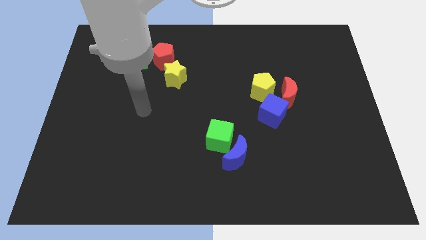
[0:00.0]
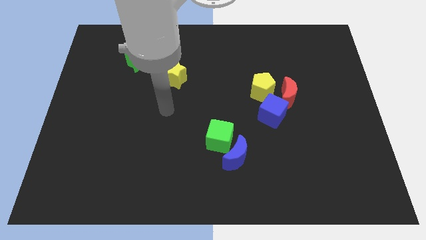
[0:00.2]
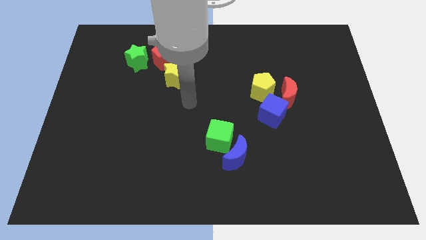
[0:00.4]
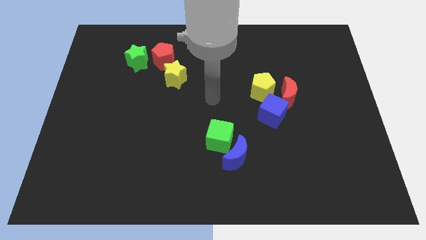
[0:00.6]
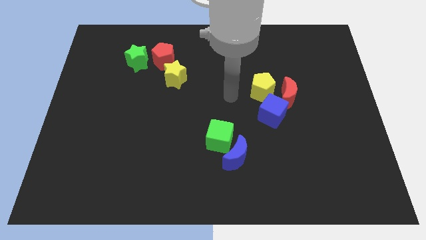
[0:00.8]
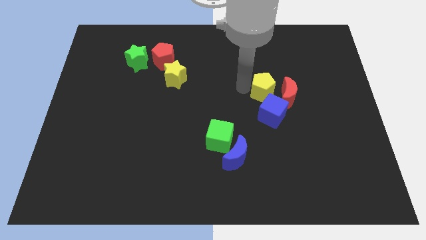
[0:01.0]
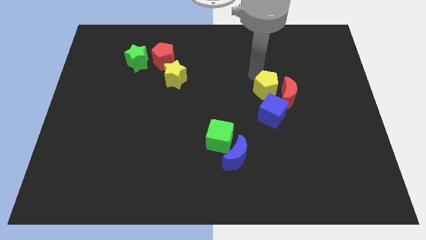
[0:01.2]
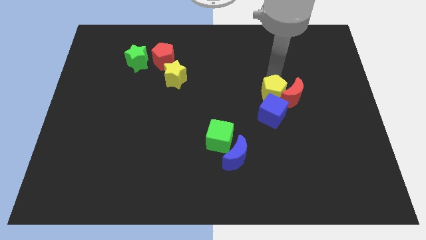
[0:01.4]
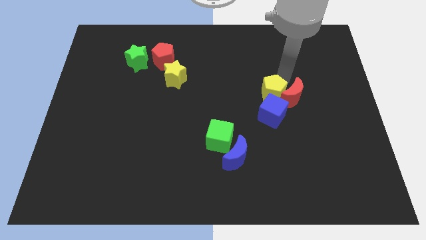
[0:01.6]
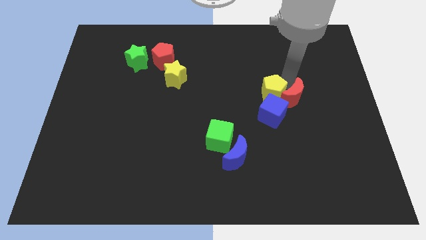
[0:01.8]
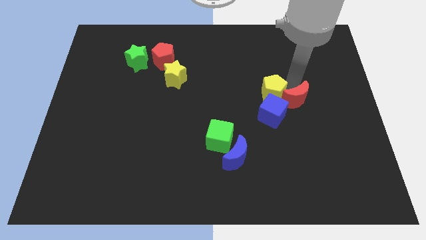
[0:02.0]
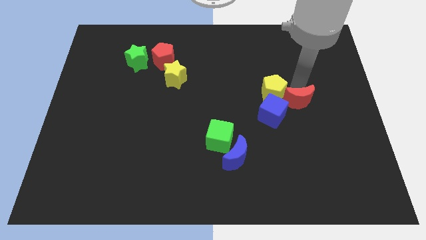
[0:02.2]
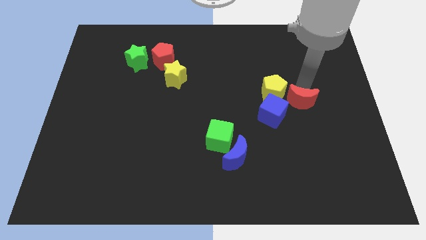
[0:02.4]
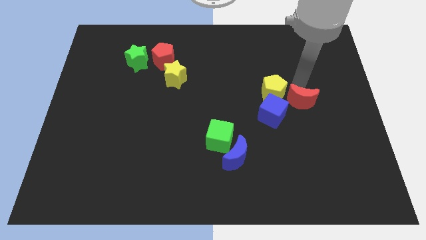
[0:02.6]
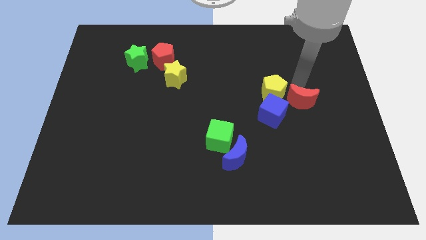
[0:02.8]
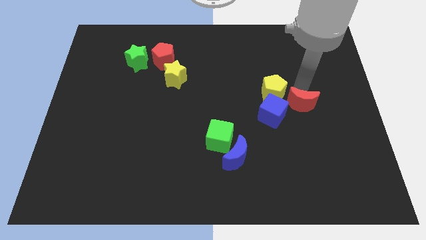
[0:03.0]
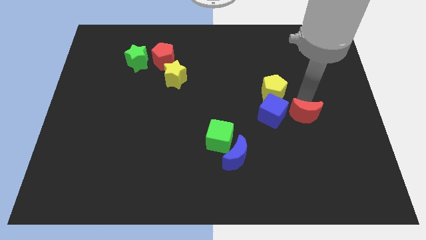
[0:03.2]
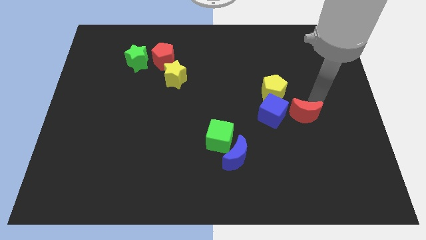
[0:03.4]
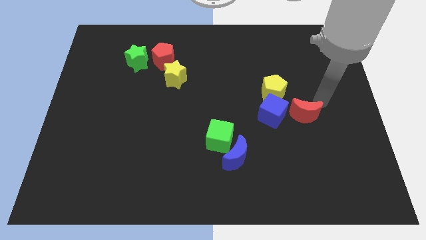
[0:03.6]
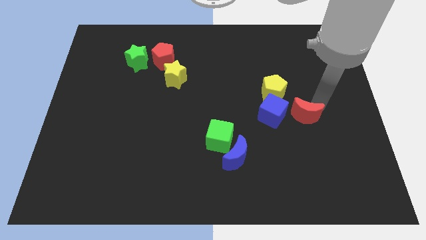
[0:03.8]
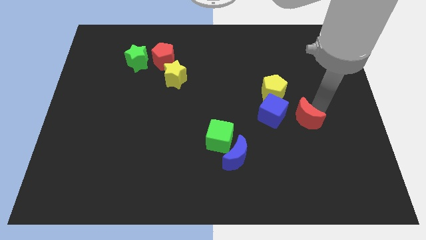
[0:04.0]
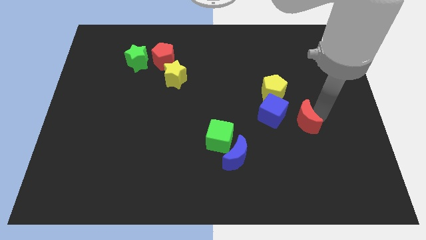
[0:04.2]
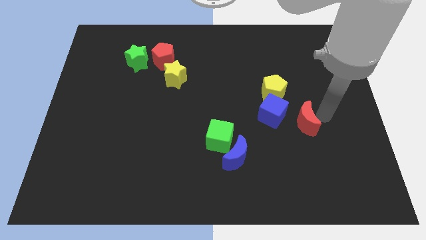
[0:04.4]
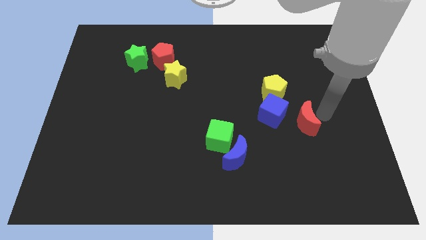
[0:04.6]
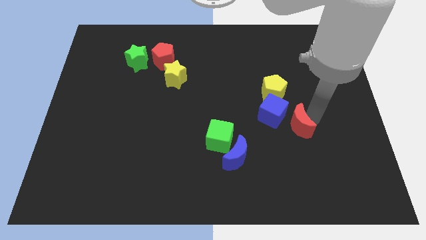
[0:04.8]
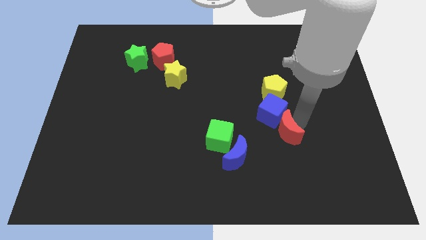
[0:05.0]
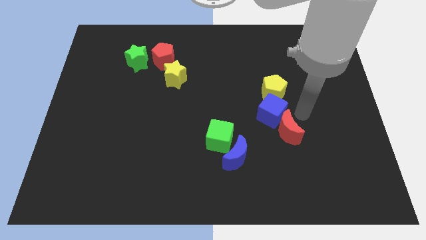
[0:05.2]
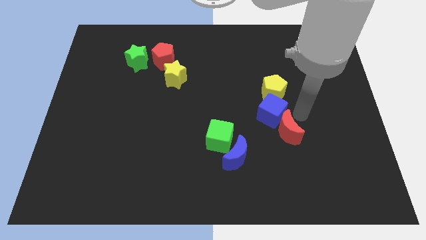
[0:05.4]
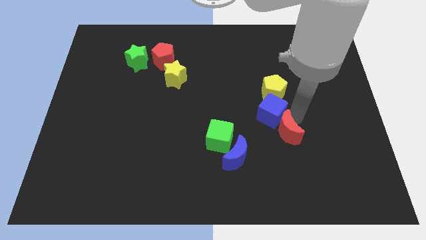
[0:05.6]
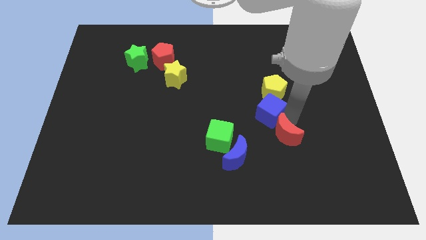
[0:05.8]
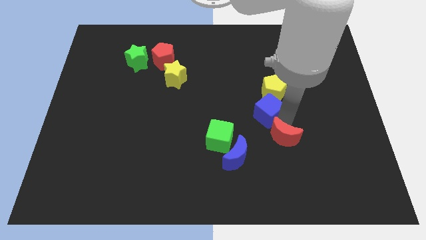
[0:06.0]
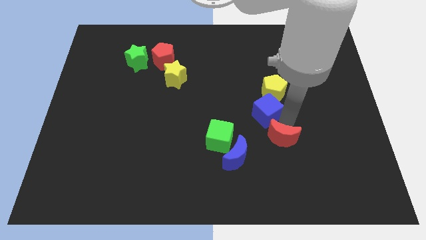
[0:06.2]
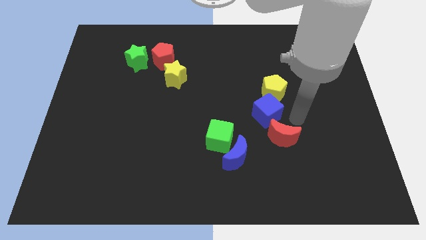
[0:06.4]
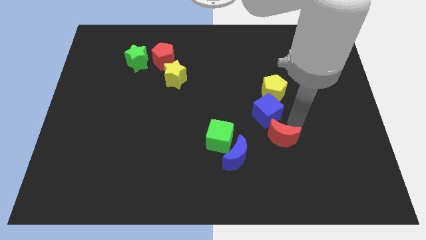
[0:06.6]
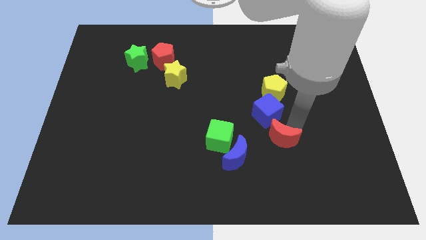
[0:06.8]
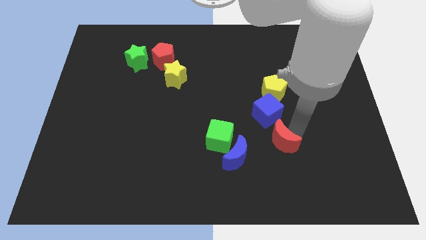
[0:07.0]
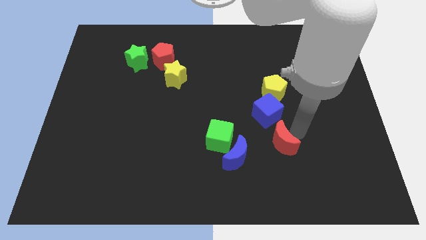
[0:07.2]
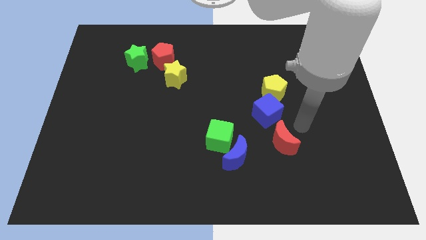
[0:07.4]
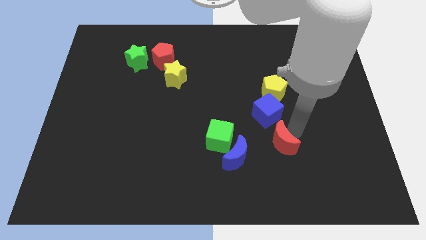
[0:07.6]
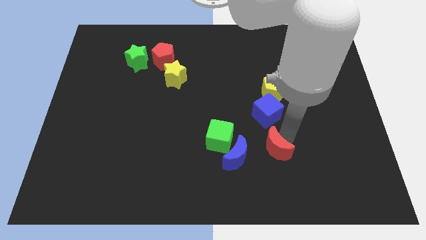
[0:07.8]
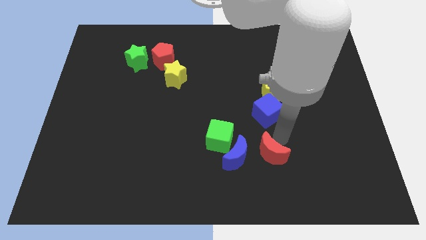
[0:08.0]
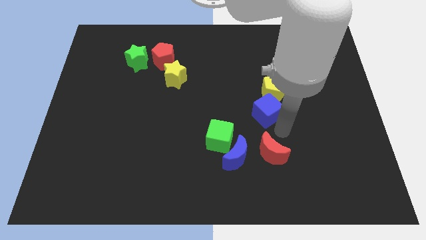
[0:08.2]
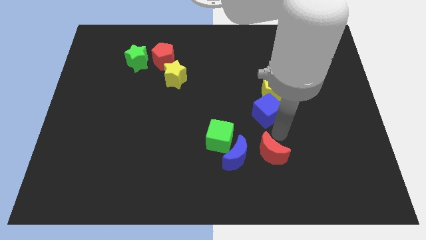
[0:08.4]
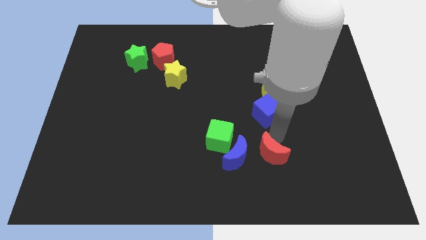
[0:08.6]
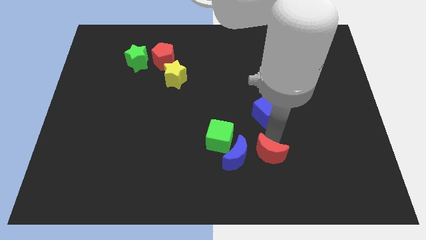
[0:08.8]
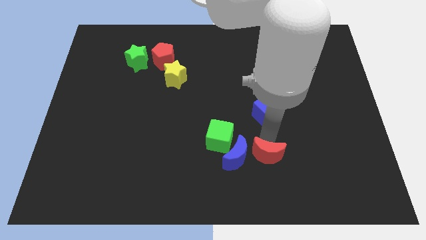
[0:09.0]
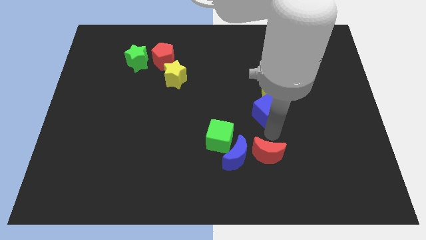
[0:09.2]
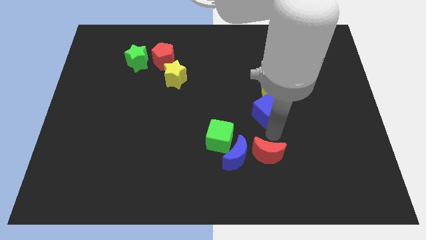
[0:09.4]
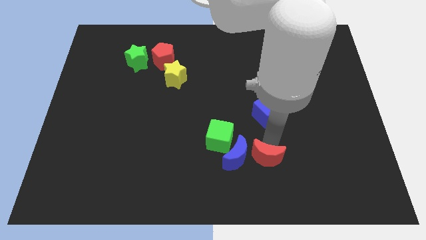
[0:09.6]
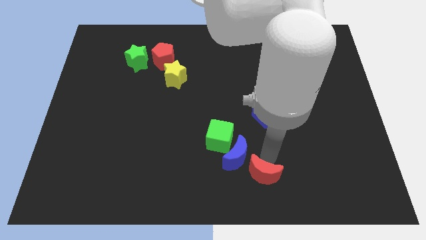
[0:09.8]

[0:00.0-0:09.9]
push the red moon to the bottom side
